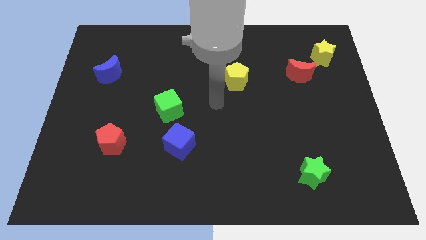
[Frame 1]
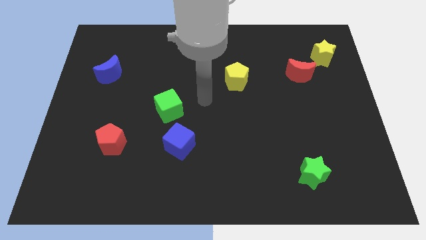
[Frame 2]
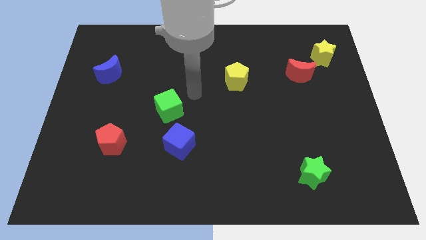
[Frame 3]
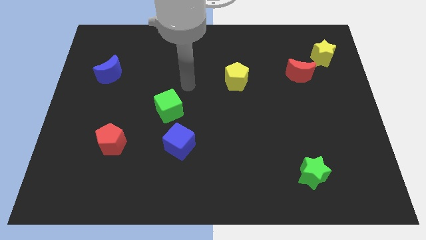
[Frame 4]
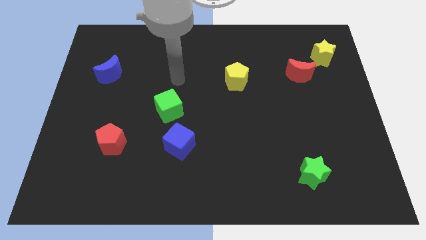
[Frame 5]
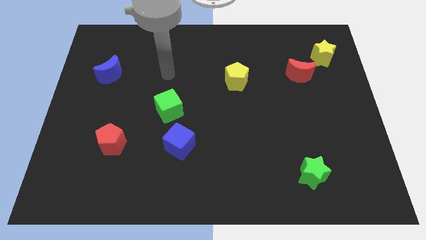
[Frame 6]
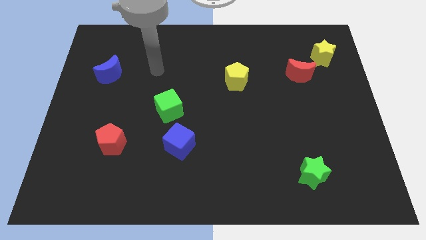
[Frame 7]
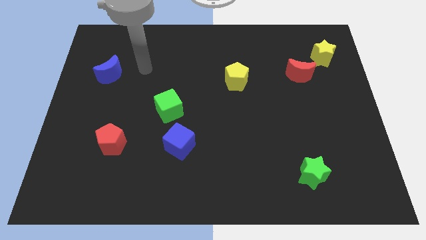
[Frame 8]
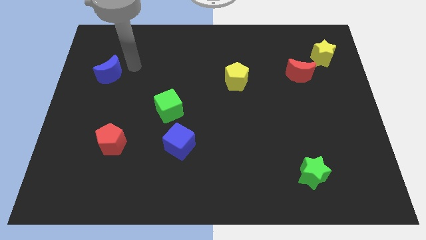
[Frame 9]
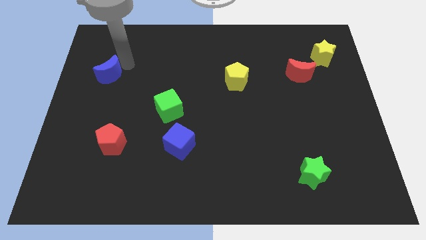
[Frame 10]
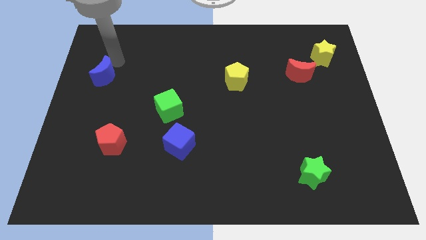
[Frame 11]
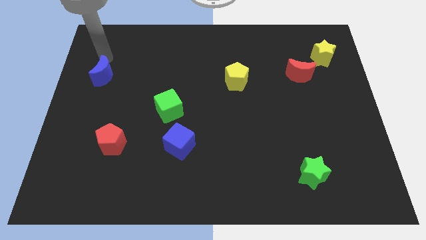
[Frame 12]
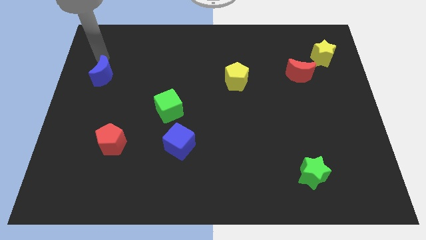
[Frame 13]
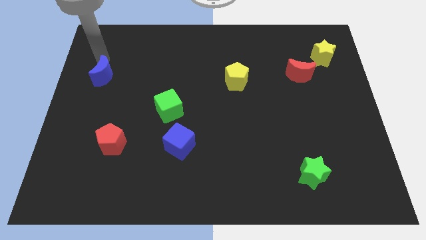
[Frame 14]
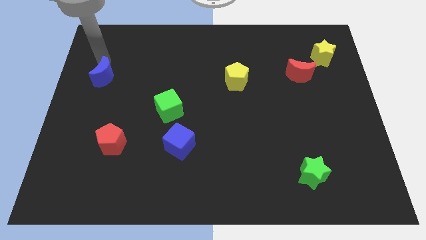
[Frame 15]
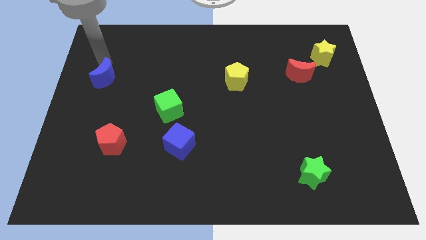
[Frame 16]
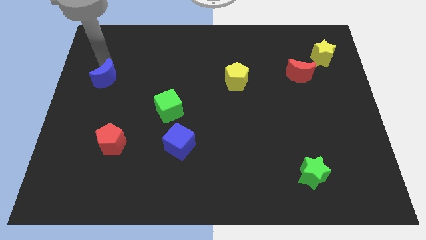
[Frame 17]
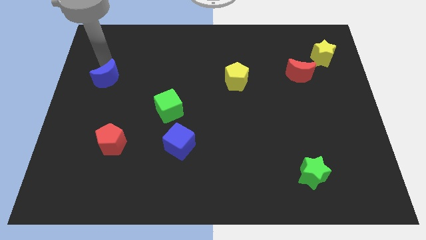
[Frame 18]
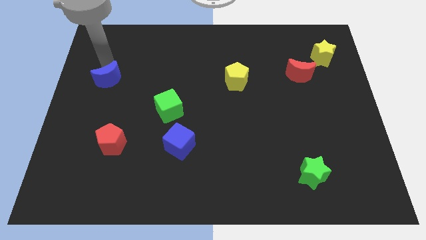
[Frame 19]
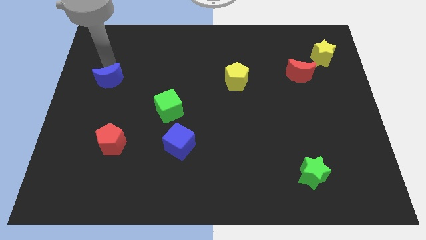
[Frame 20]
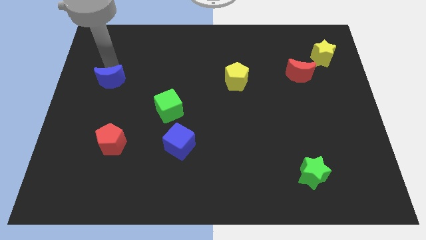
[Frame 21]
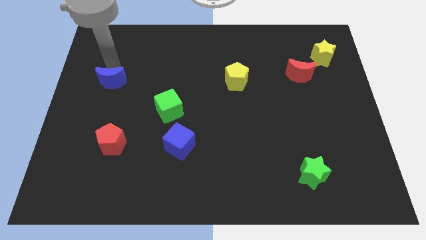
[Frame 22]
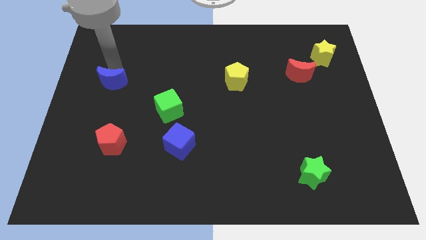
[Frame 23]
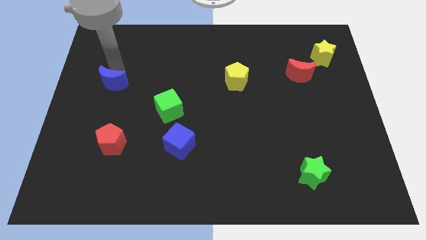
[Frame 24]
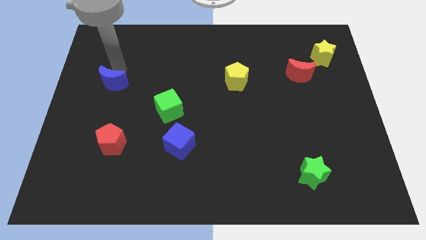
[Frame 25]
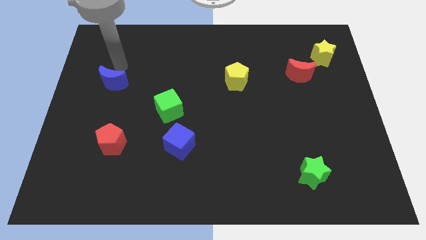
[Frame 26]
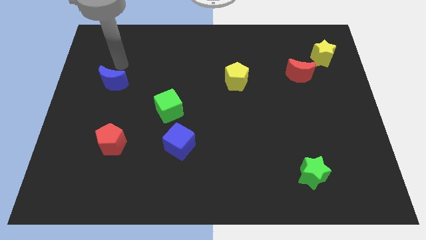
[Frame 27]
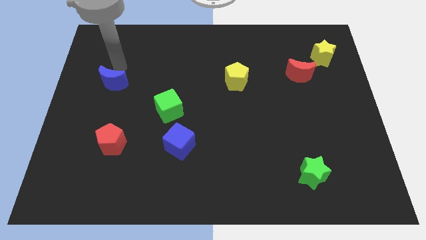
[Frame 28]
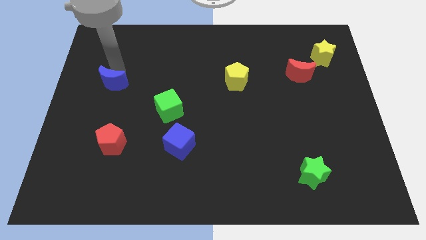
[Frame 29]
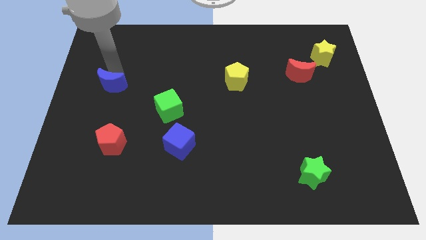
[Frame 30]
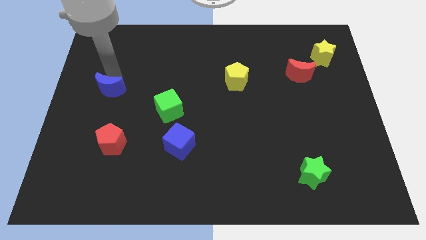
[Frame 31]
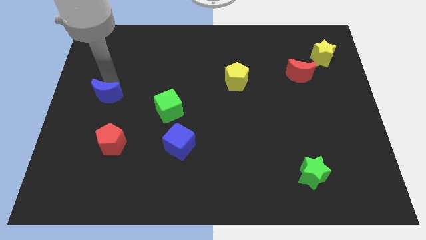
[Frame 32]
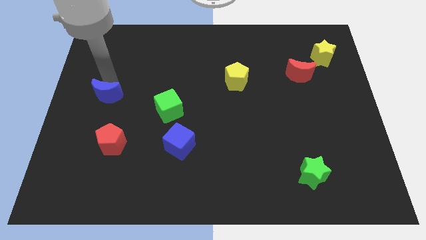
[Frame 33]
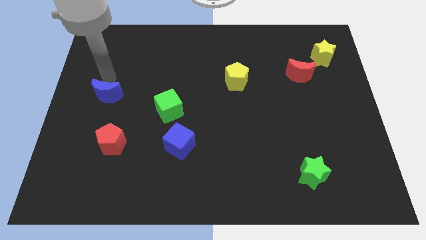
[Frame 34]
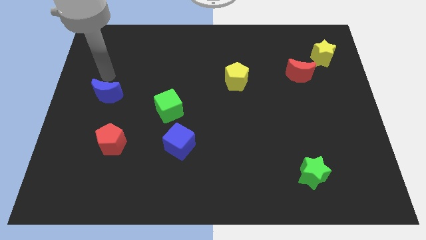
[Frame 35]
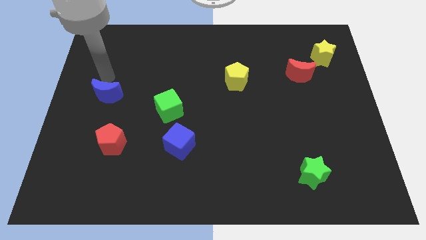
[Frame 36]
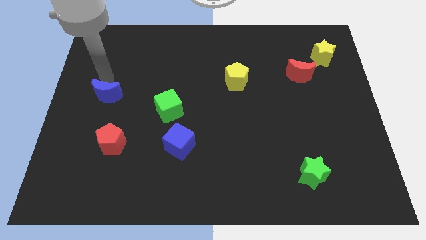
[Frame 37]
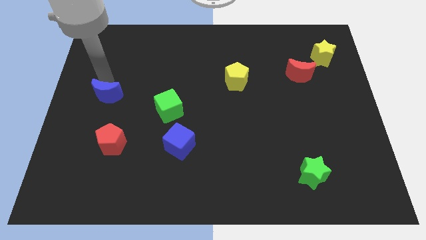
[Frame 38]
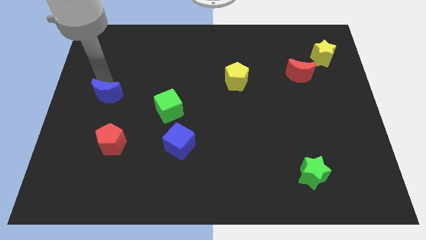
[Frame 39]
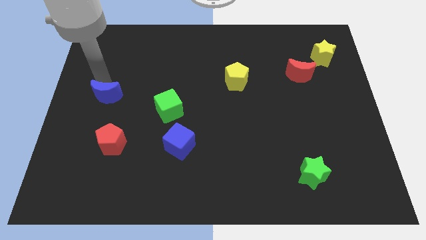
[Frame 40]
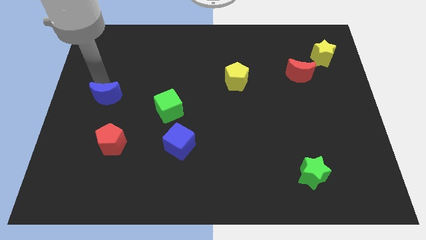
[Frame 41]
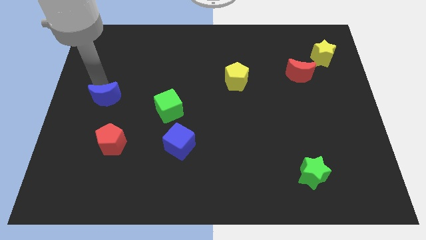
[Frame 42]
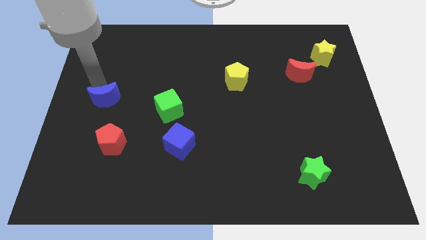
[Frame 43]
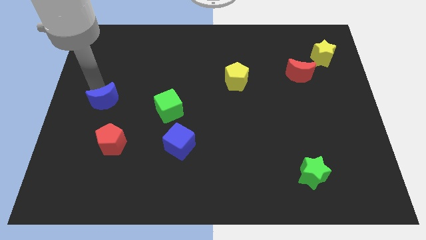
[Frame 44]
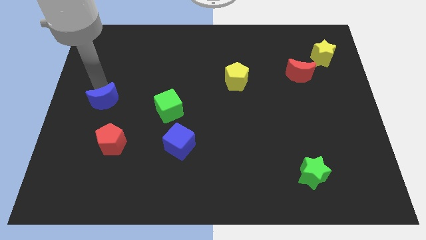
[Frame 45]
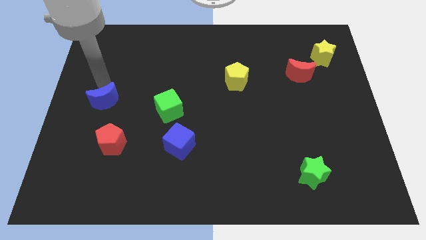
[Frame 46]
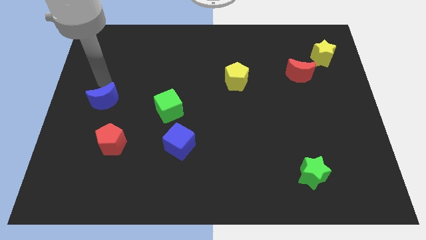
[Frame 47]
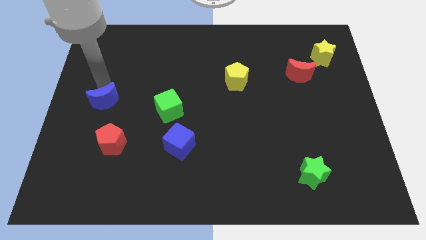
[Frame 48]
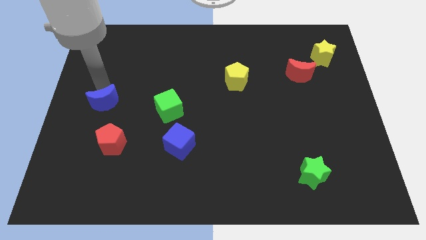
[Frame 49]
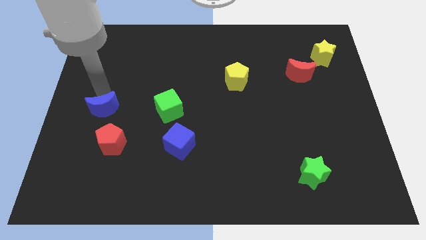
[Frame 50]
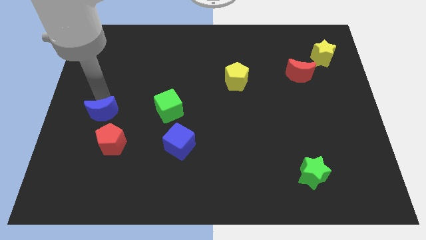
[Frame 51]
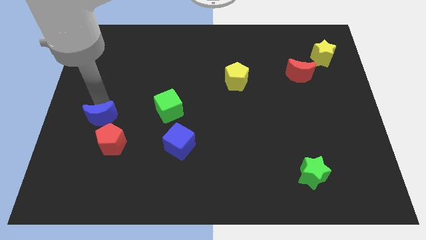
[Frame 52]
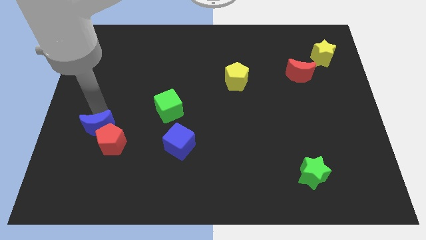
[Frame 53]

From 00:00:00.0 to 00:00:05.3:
put the blue moon next to the red pentagon

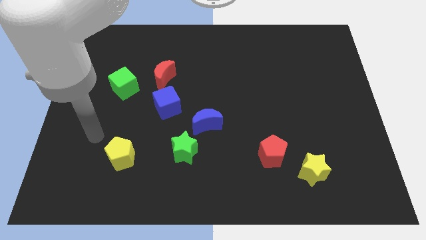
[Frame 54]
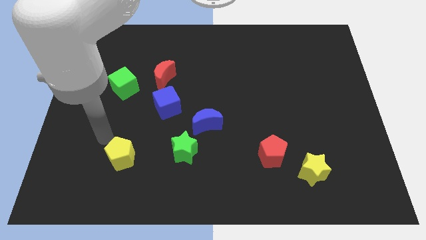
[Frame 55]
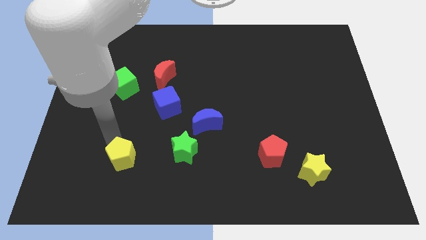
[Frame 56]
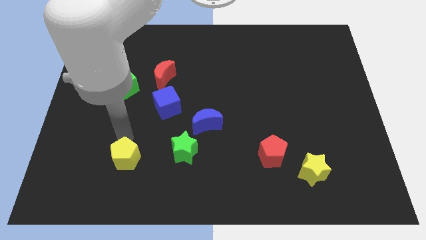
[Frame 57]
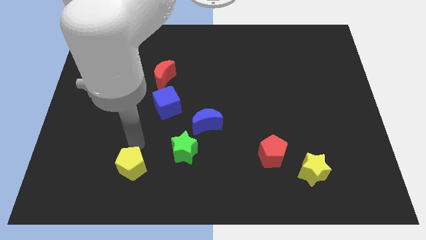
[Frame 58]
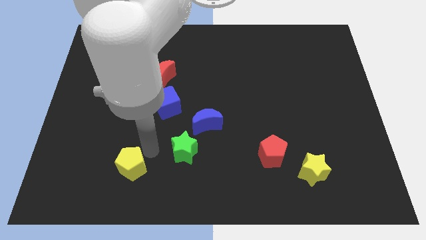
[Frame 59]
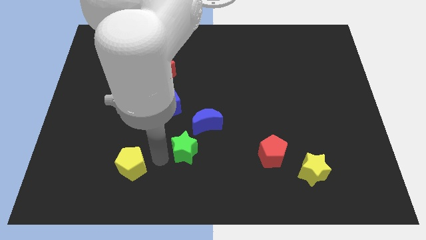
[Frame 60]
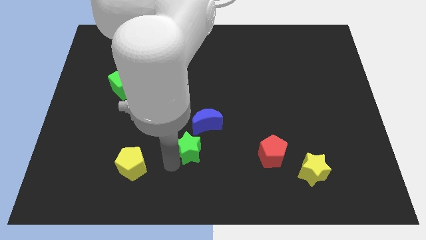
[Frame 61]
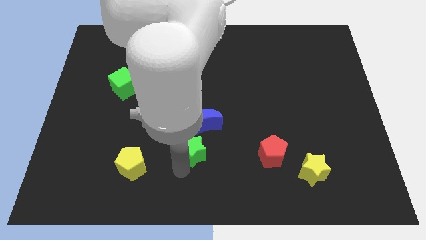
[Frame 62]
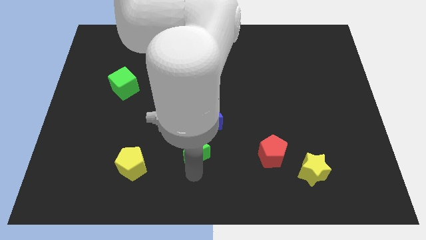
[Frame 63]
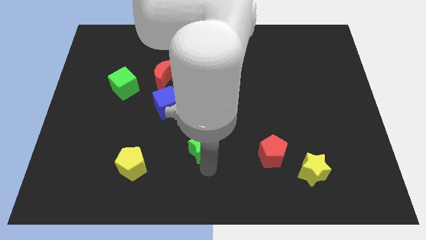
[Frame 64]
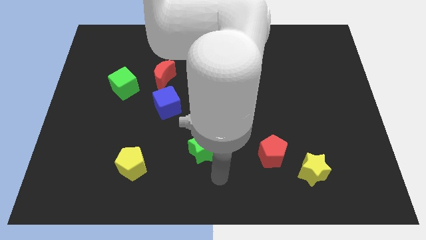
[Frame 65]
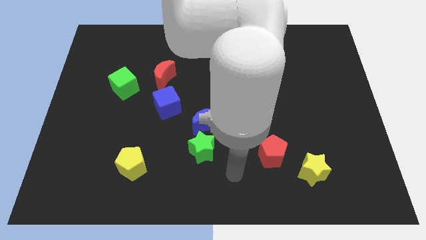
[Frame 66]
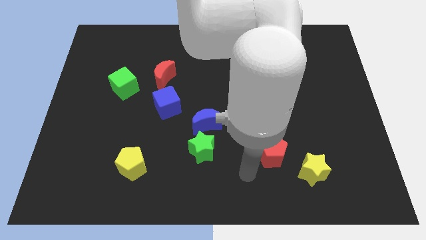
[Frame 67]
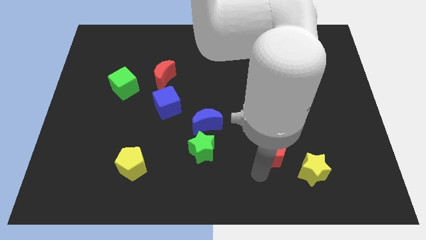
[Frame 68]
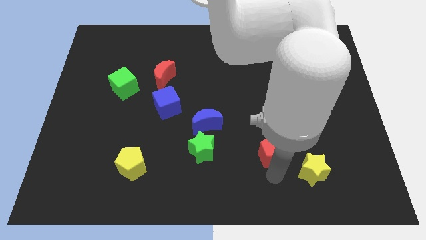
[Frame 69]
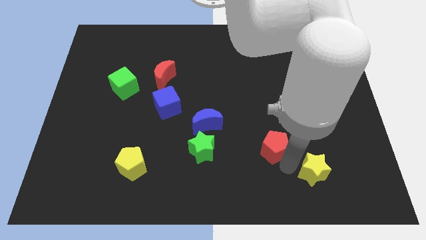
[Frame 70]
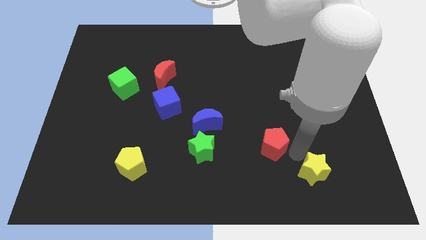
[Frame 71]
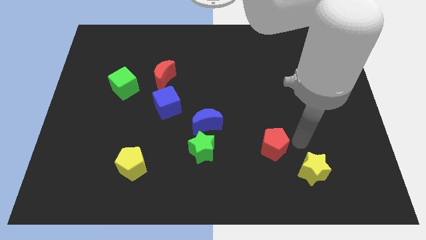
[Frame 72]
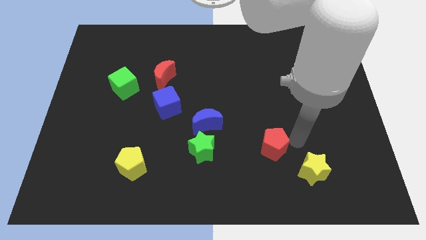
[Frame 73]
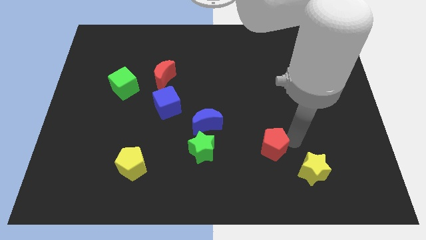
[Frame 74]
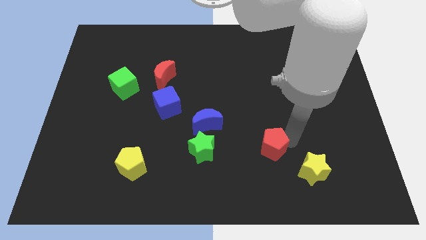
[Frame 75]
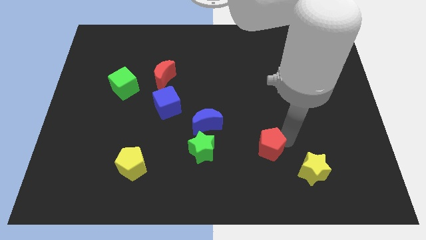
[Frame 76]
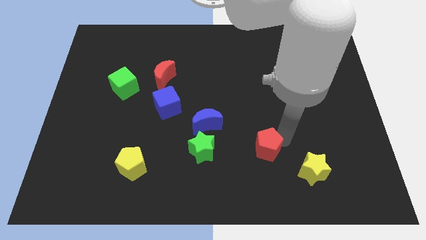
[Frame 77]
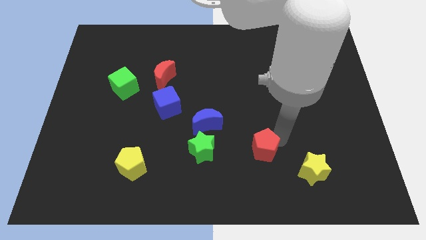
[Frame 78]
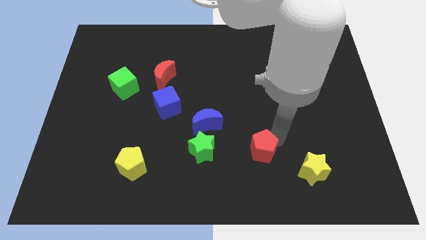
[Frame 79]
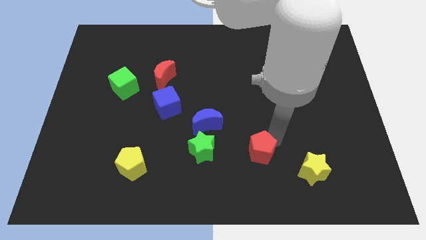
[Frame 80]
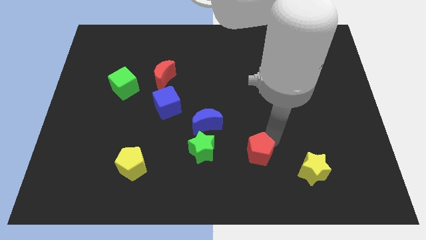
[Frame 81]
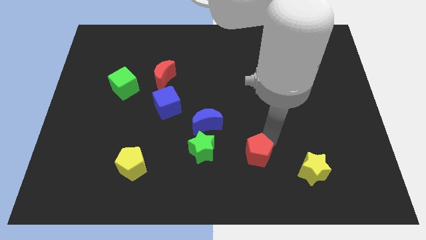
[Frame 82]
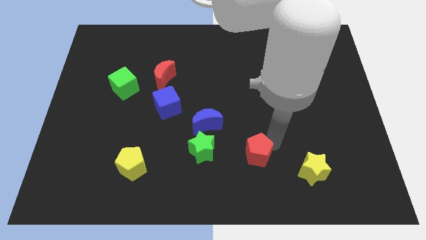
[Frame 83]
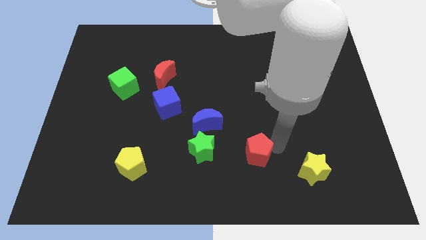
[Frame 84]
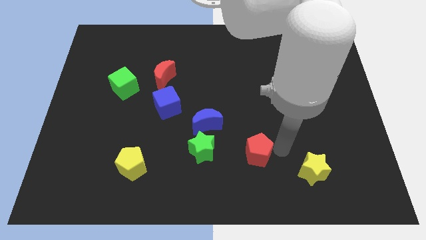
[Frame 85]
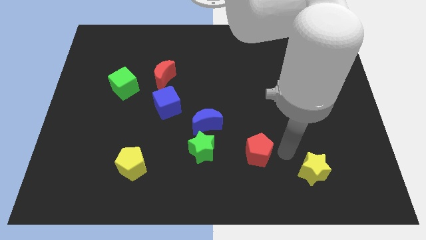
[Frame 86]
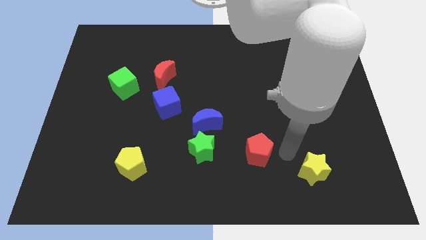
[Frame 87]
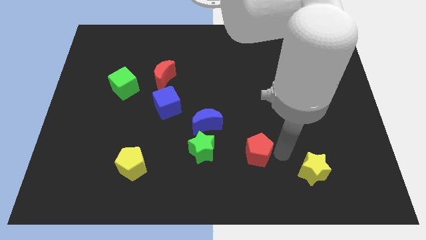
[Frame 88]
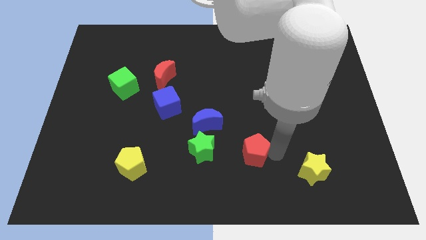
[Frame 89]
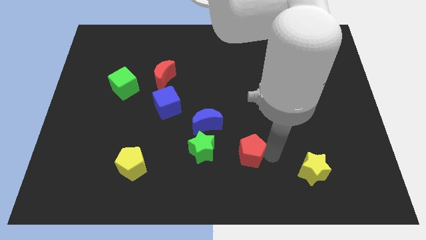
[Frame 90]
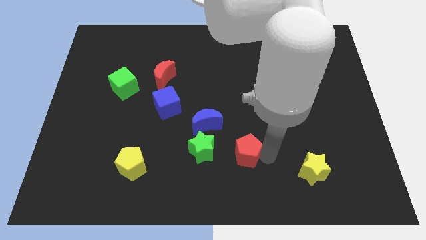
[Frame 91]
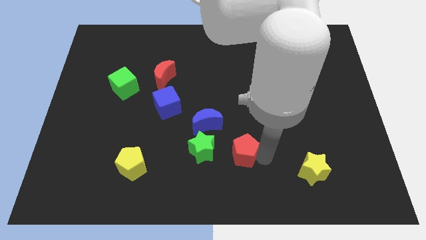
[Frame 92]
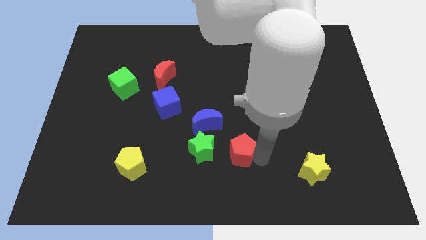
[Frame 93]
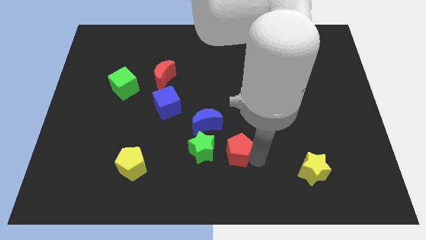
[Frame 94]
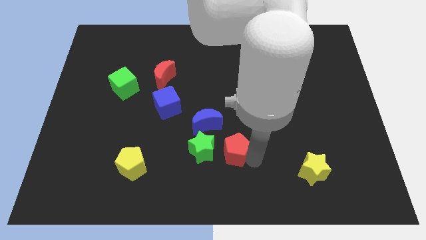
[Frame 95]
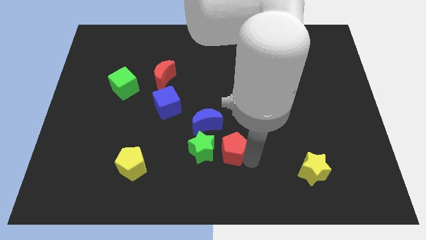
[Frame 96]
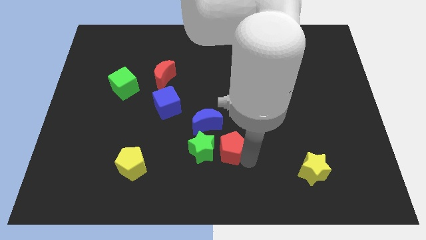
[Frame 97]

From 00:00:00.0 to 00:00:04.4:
move the red pentagon towards the green star
